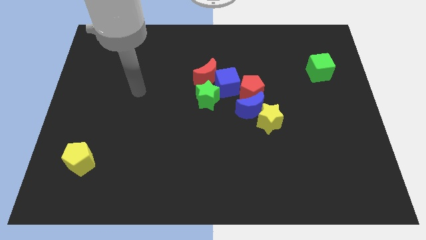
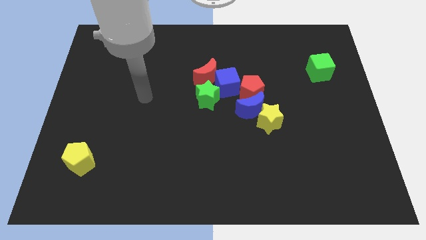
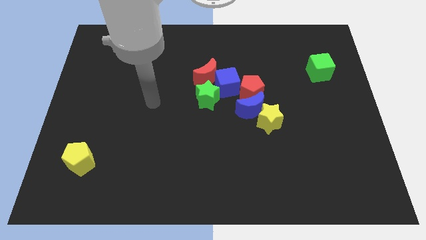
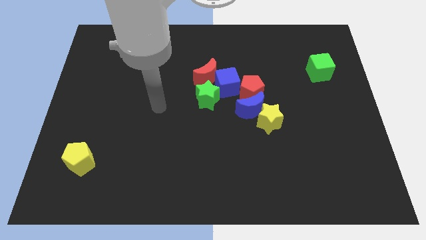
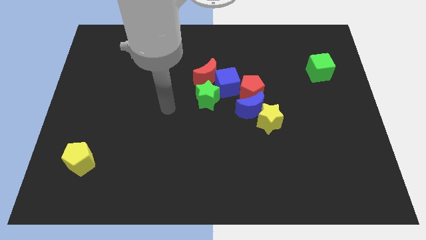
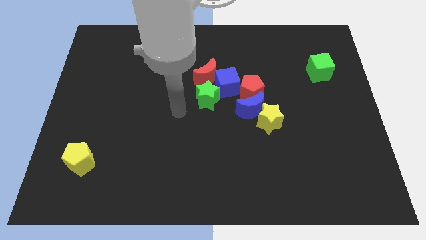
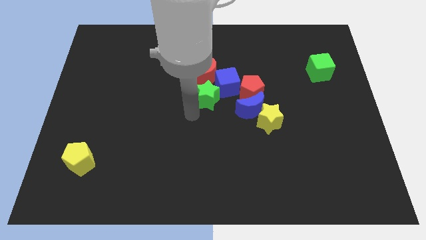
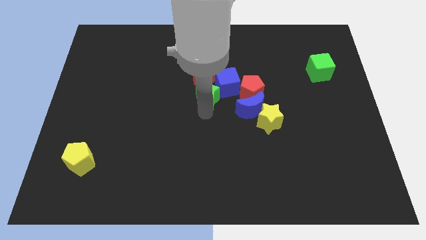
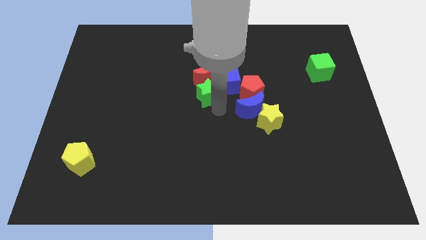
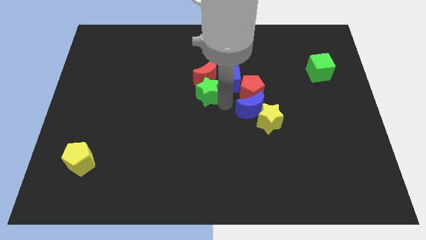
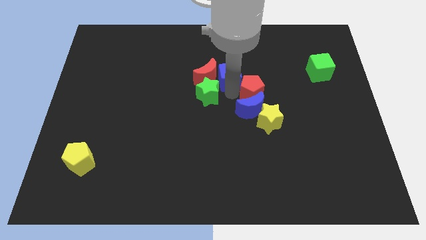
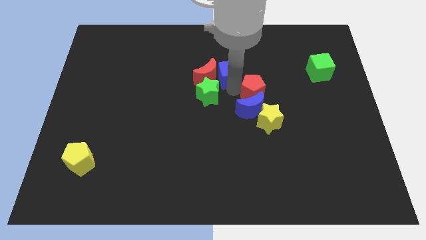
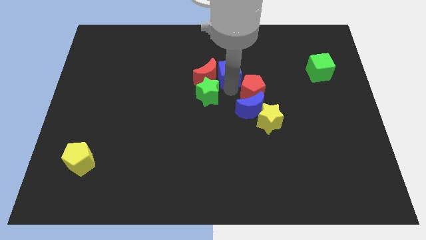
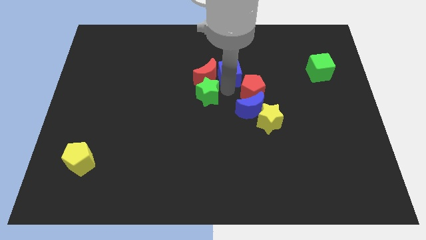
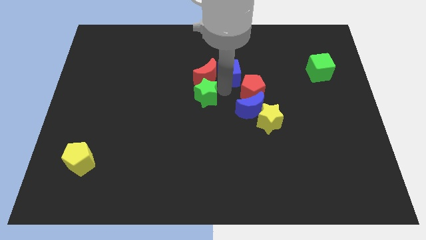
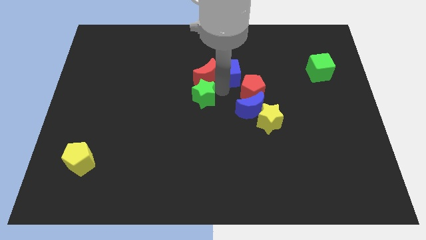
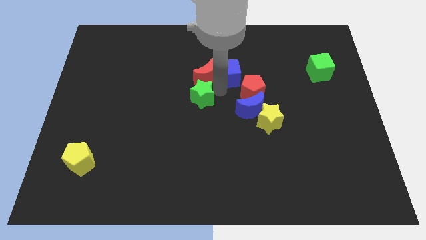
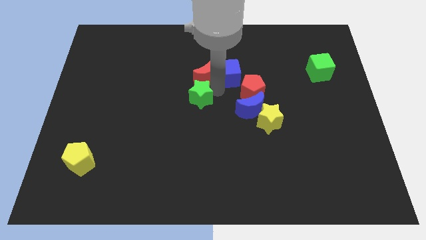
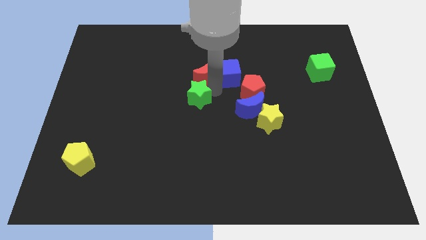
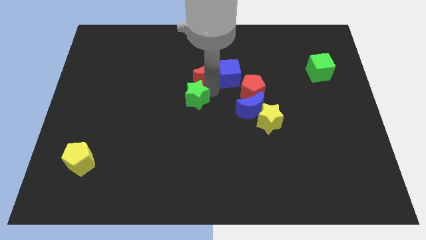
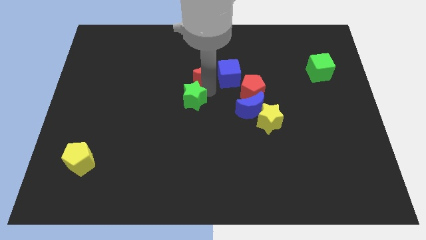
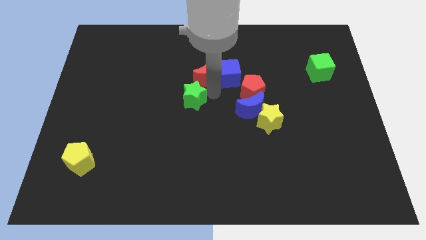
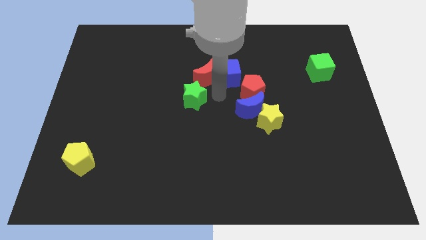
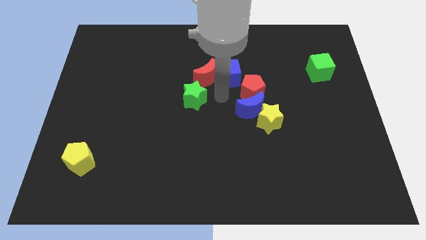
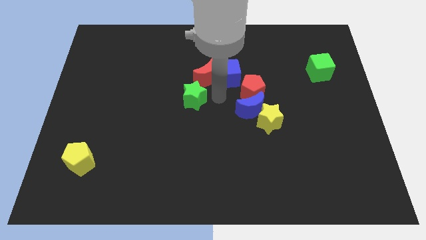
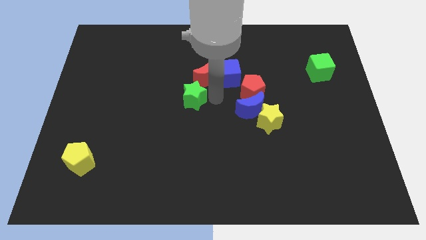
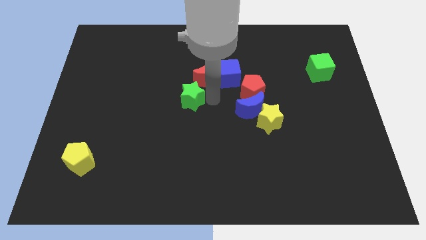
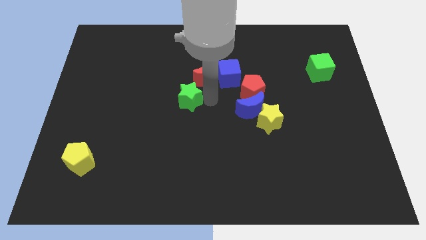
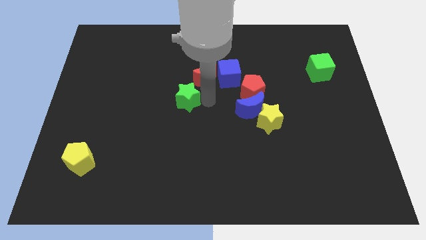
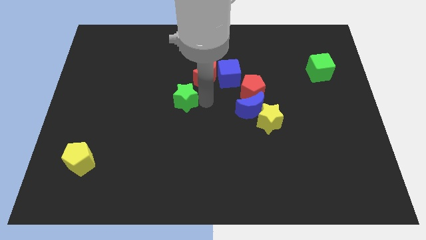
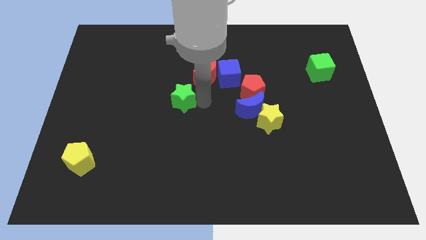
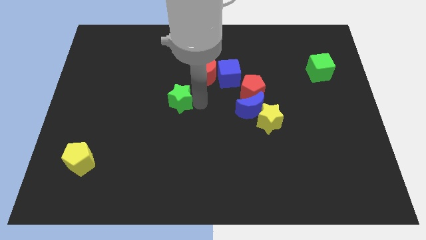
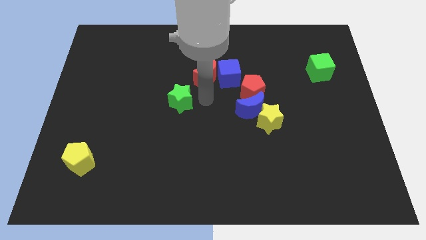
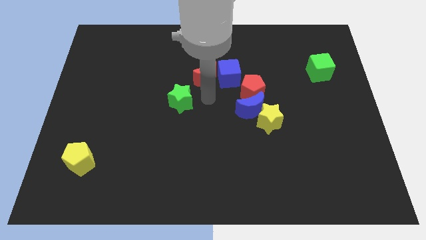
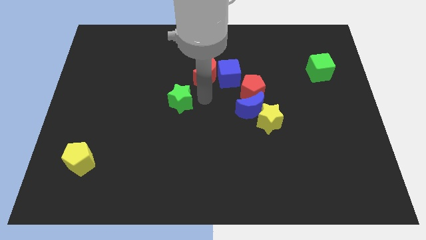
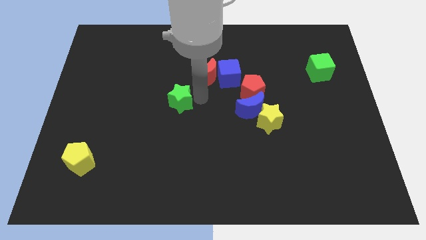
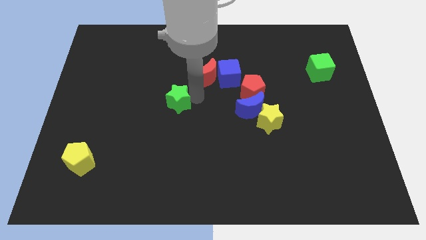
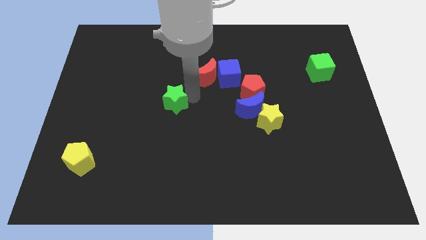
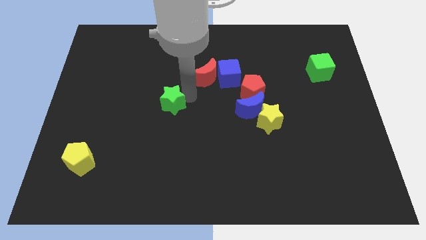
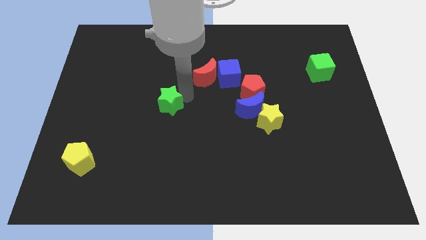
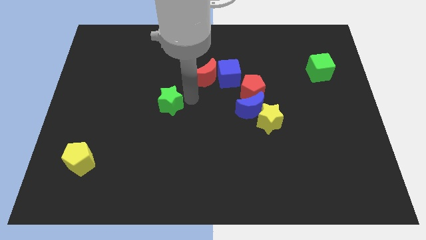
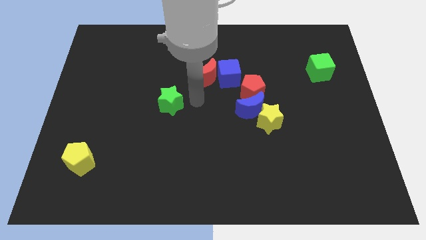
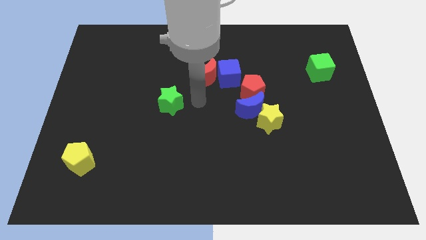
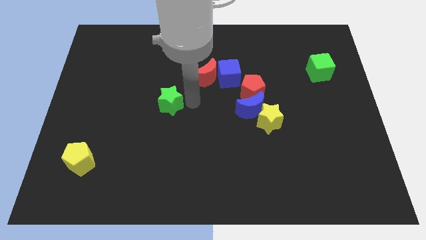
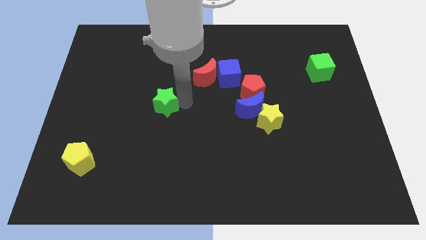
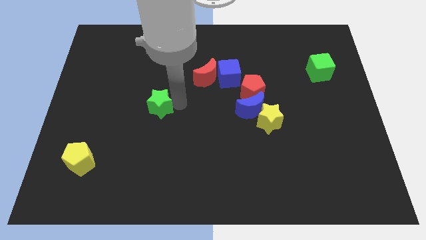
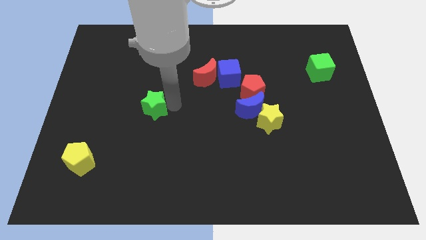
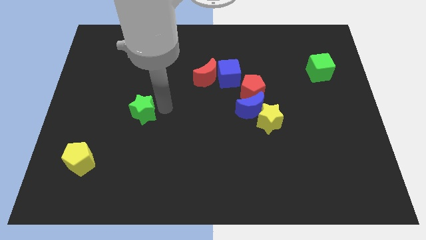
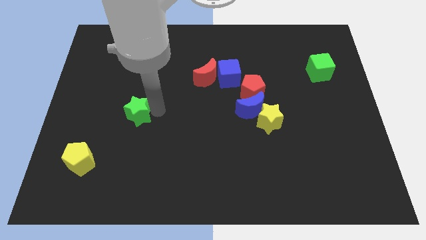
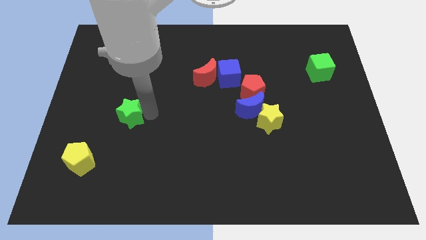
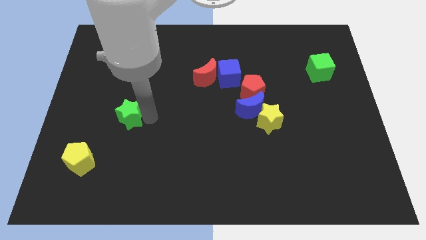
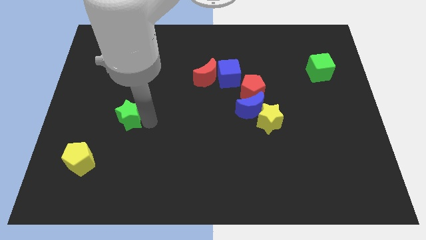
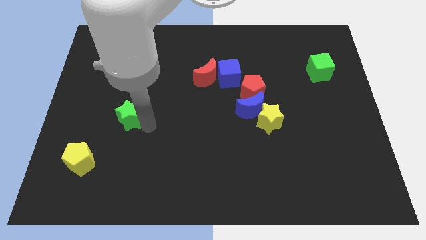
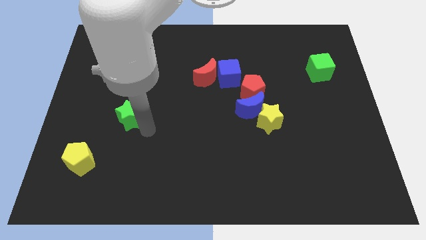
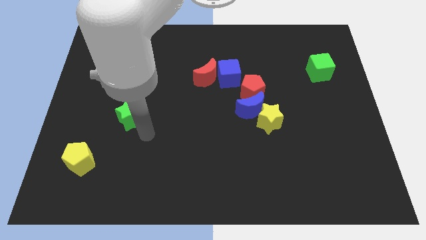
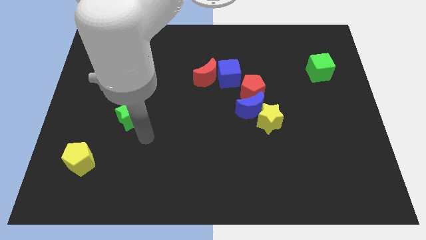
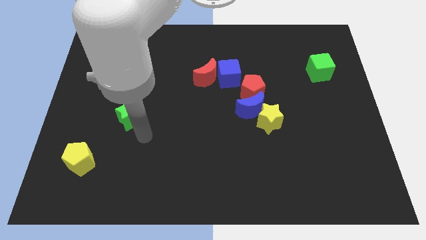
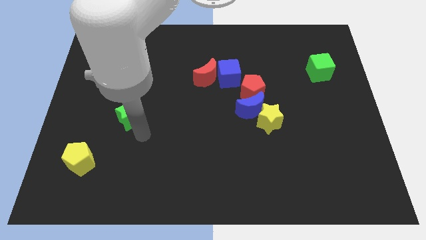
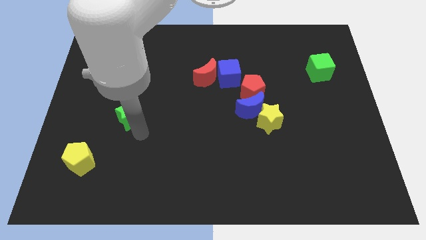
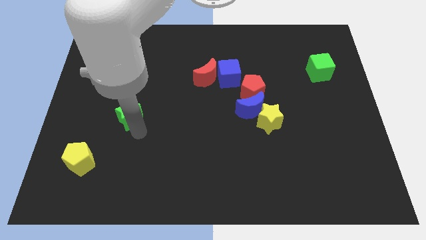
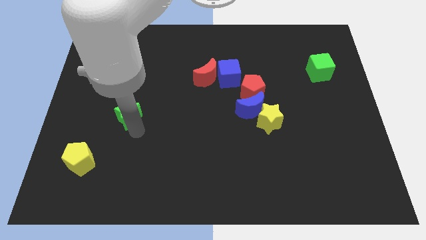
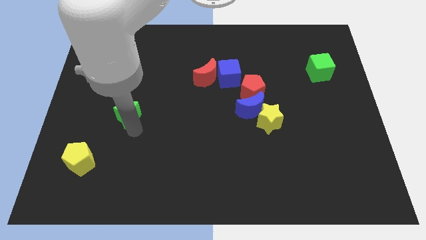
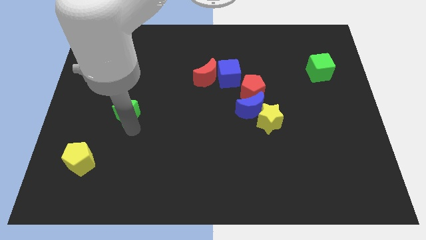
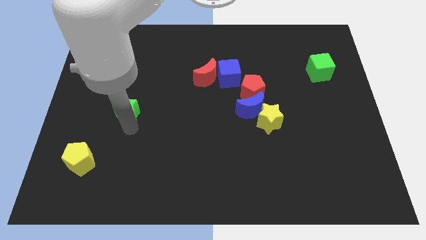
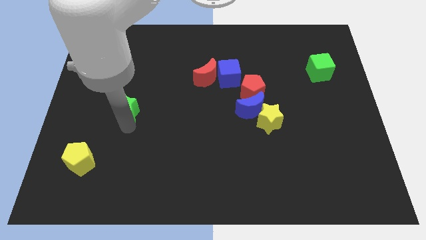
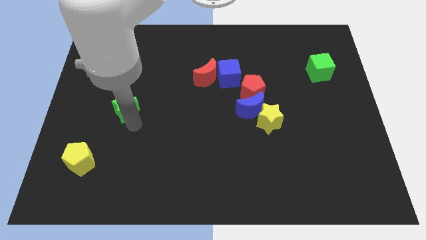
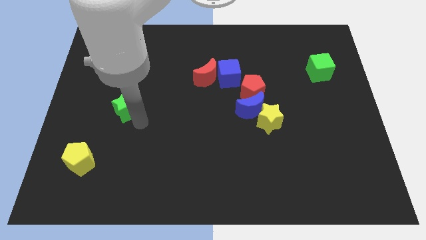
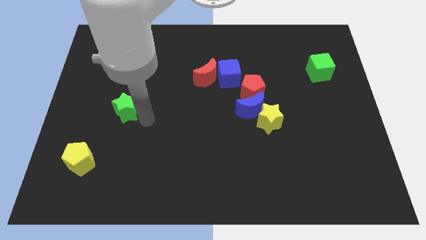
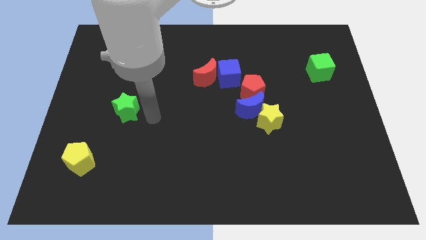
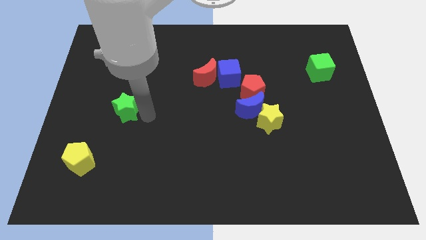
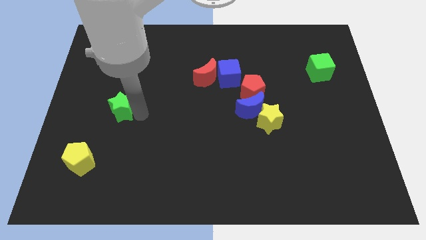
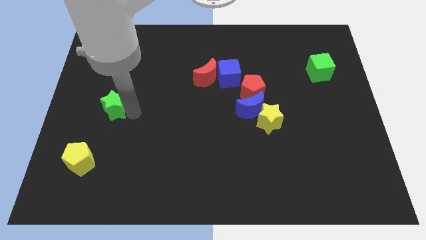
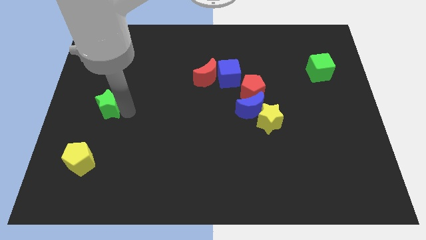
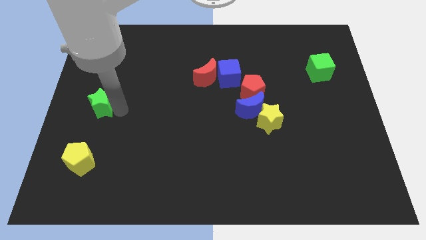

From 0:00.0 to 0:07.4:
put the green star to the center left
